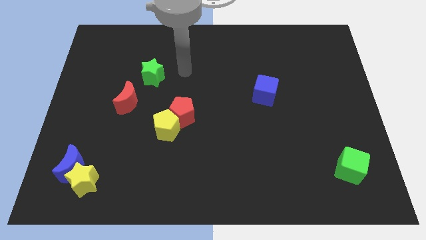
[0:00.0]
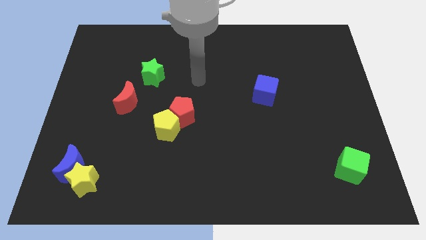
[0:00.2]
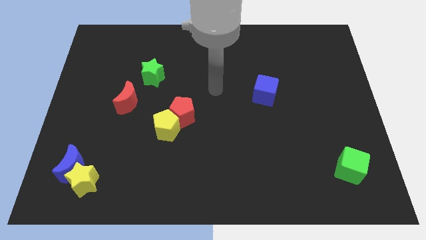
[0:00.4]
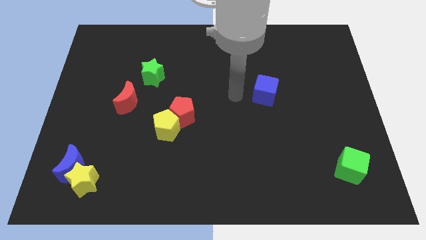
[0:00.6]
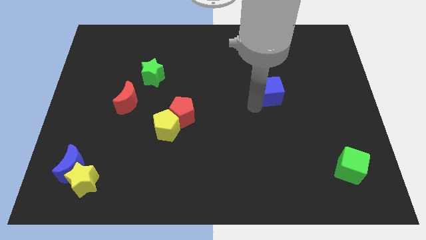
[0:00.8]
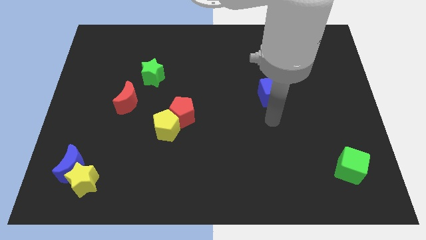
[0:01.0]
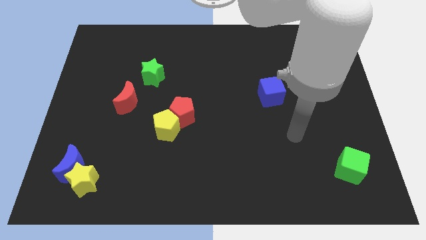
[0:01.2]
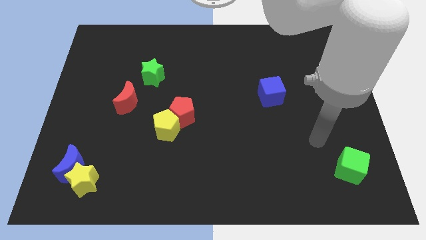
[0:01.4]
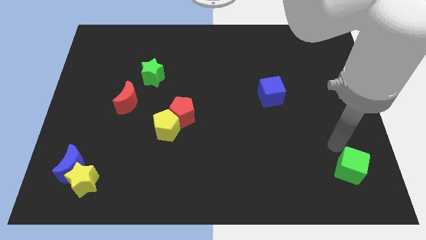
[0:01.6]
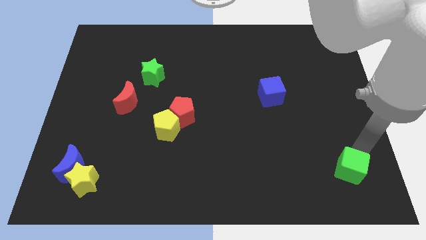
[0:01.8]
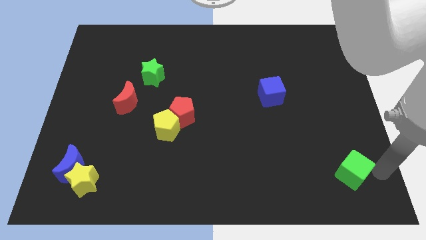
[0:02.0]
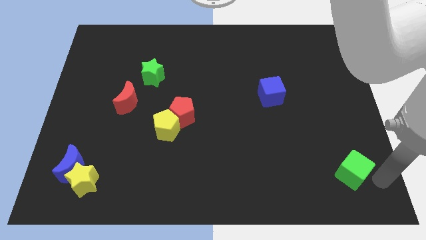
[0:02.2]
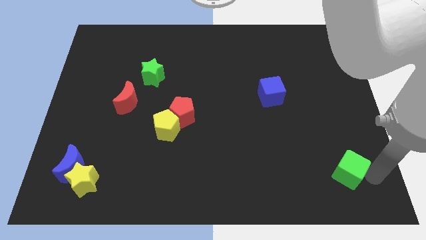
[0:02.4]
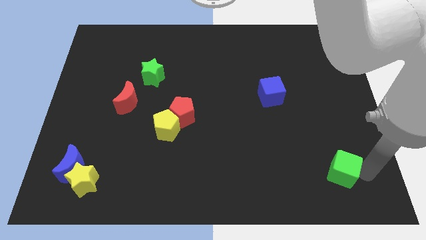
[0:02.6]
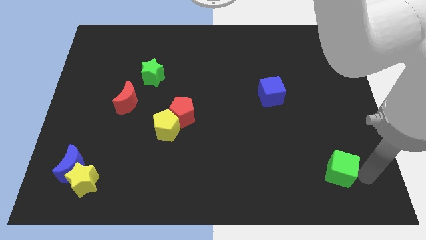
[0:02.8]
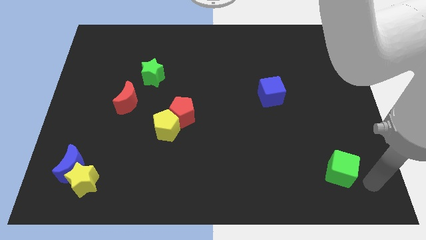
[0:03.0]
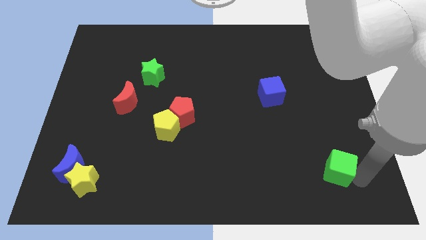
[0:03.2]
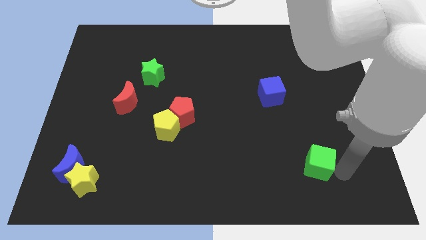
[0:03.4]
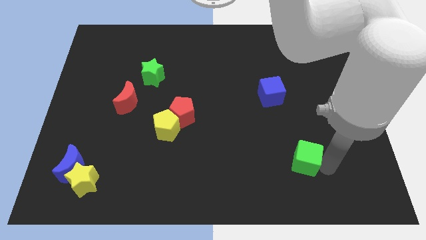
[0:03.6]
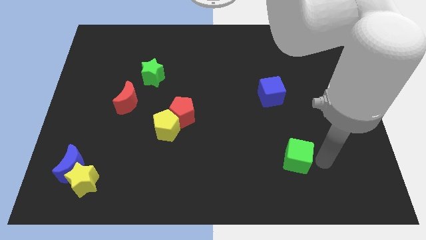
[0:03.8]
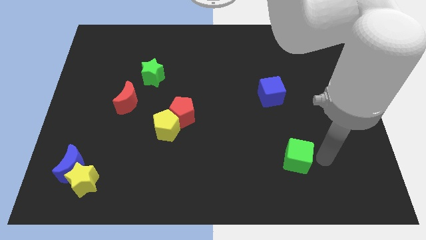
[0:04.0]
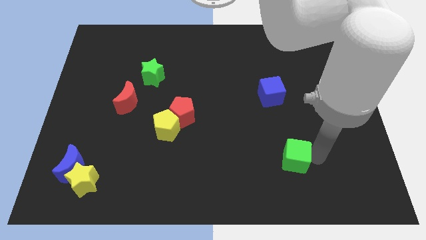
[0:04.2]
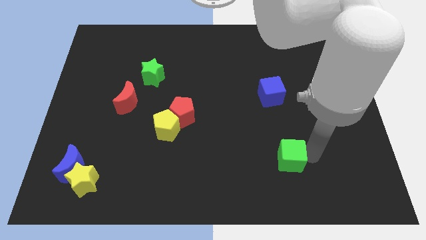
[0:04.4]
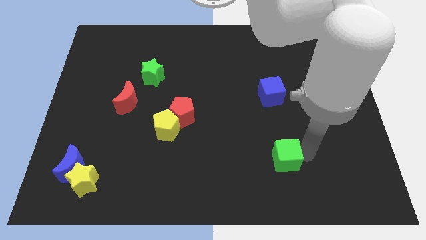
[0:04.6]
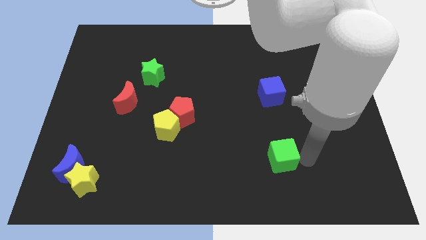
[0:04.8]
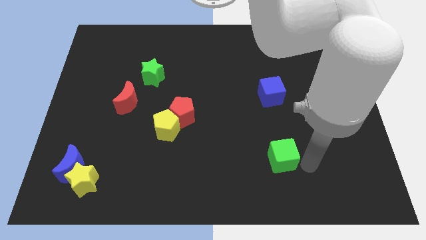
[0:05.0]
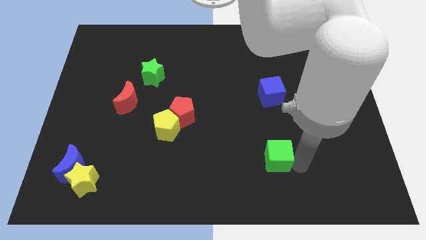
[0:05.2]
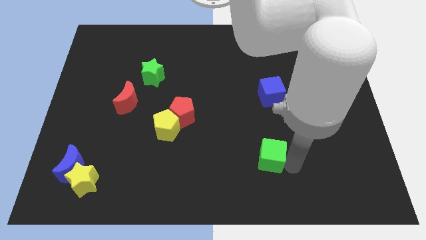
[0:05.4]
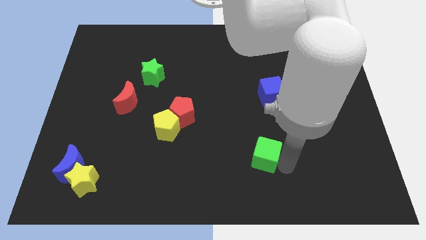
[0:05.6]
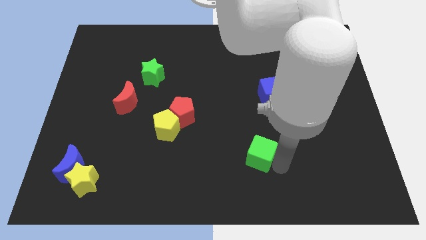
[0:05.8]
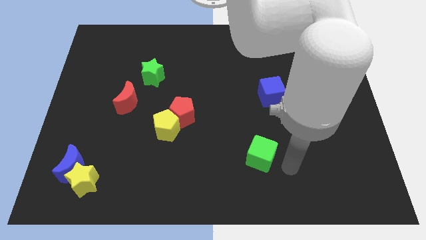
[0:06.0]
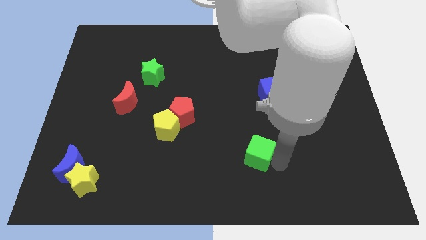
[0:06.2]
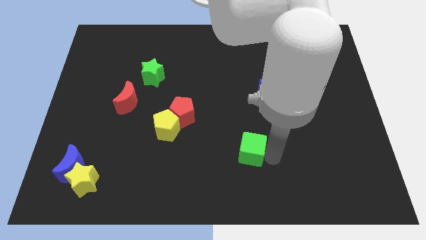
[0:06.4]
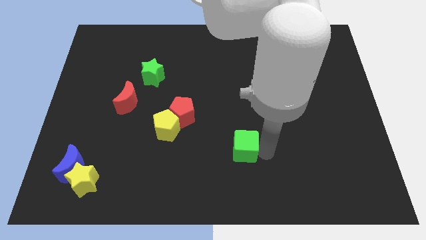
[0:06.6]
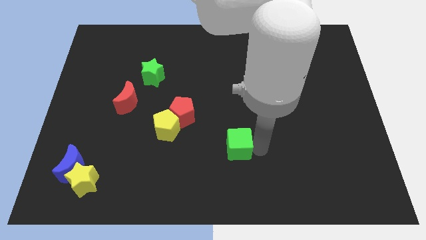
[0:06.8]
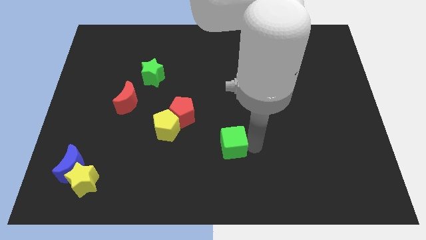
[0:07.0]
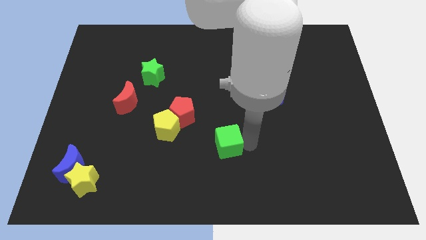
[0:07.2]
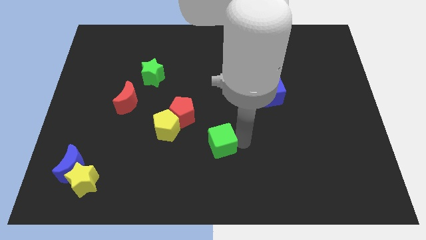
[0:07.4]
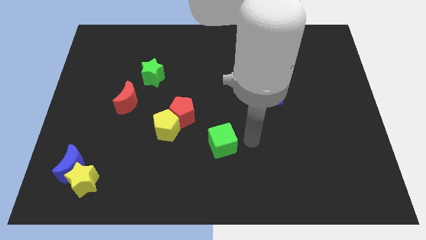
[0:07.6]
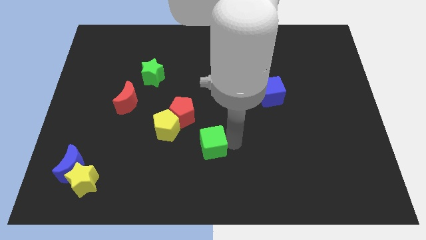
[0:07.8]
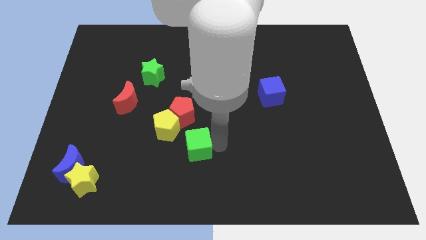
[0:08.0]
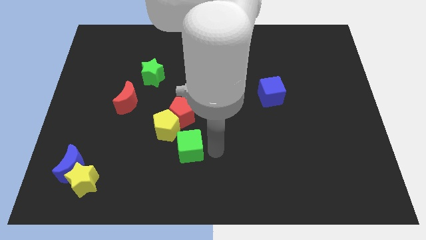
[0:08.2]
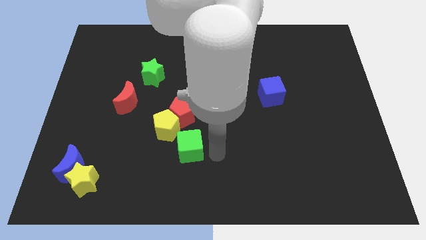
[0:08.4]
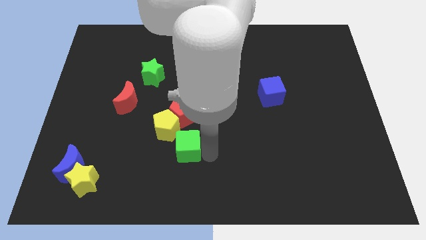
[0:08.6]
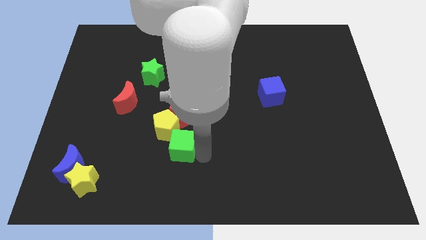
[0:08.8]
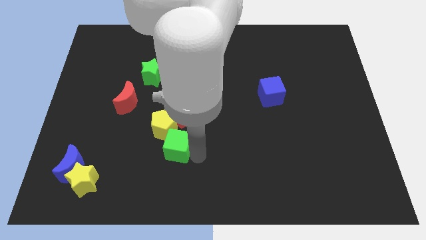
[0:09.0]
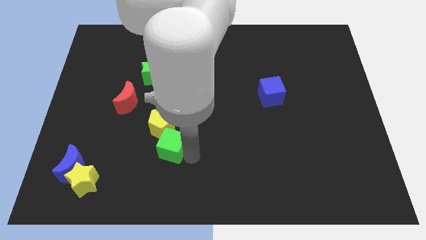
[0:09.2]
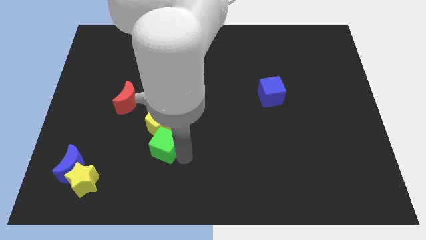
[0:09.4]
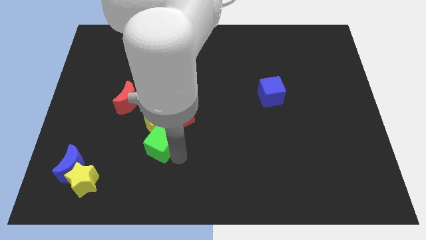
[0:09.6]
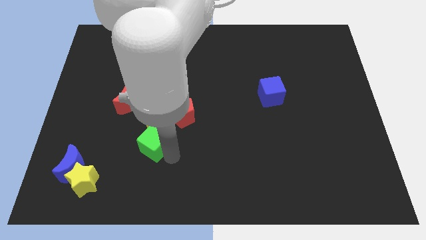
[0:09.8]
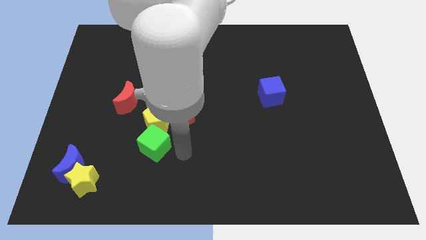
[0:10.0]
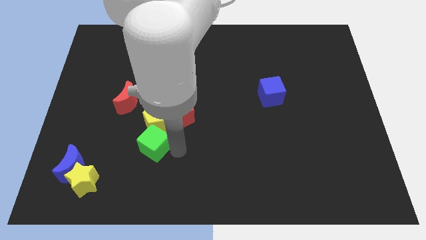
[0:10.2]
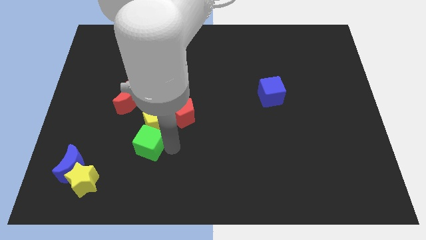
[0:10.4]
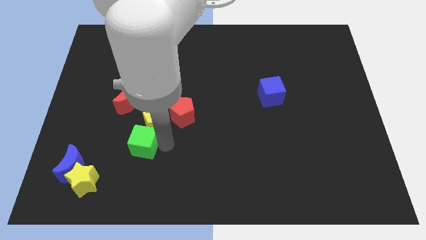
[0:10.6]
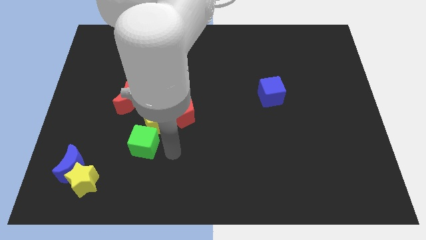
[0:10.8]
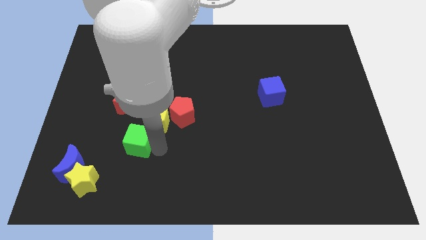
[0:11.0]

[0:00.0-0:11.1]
put the green cube below the red moon

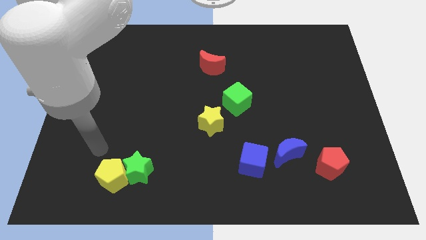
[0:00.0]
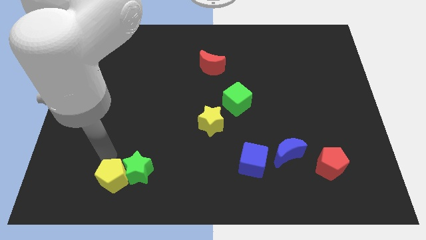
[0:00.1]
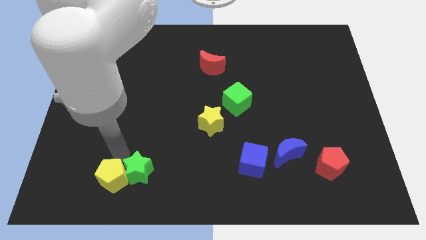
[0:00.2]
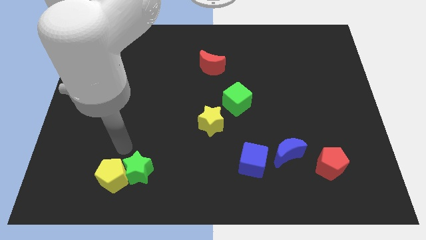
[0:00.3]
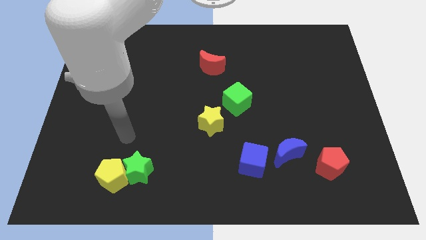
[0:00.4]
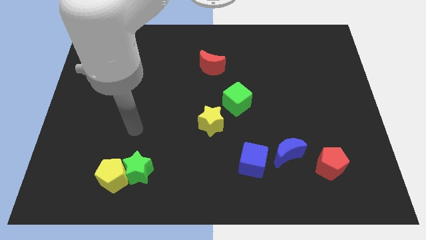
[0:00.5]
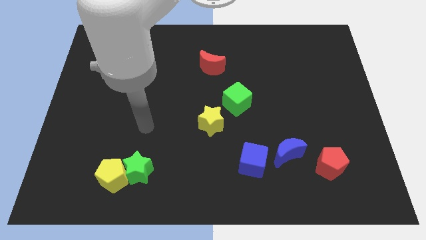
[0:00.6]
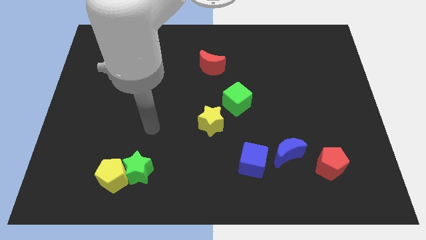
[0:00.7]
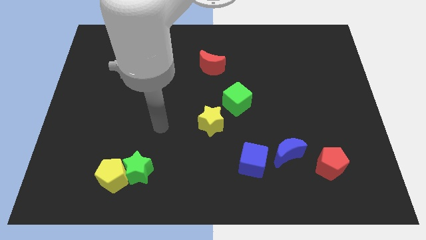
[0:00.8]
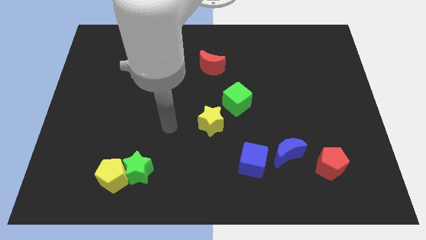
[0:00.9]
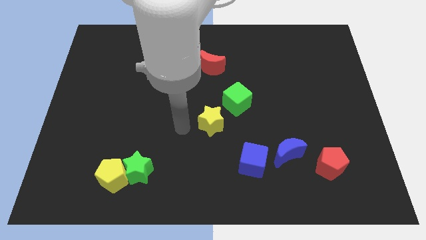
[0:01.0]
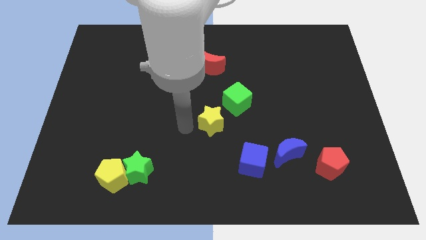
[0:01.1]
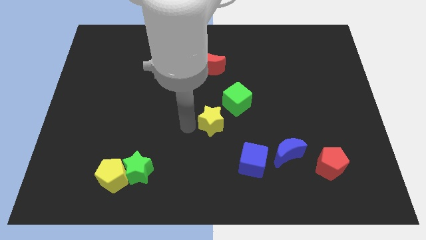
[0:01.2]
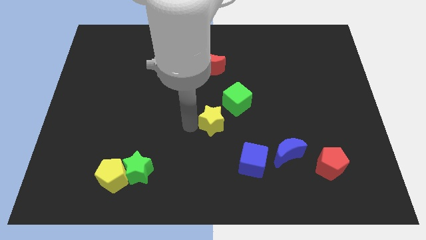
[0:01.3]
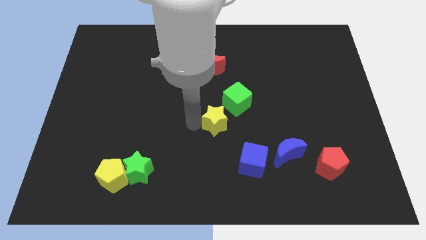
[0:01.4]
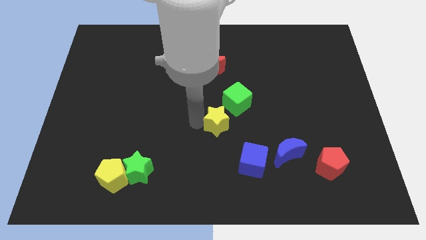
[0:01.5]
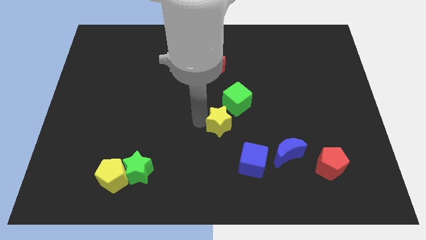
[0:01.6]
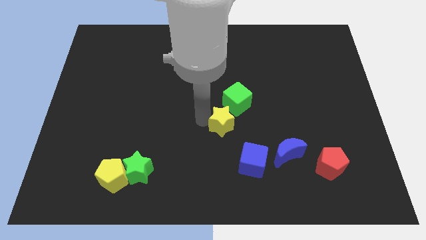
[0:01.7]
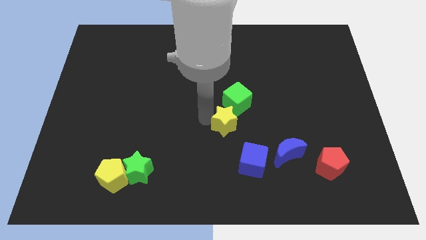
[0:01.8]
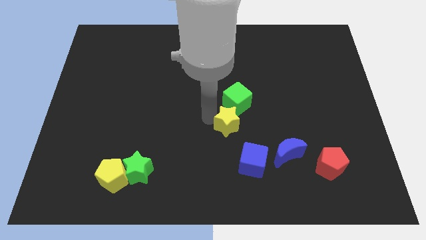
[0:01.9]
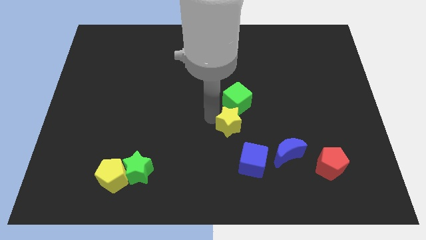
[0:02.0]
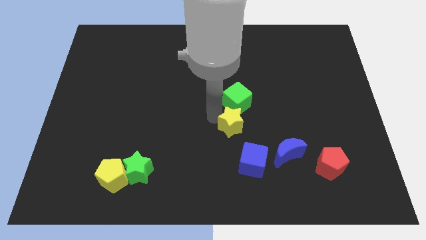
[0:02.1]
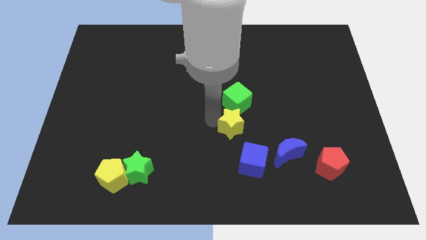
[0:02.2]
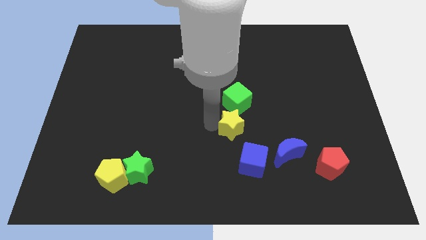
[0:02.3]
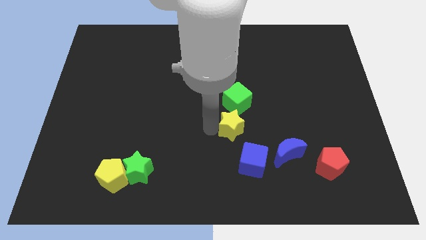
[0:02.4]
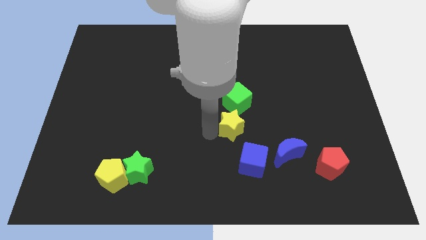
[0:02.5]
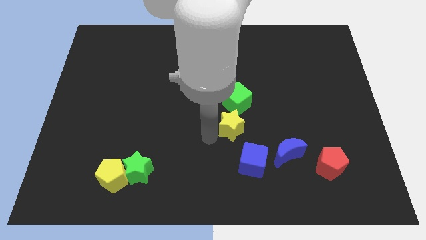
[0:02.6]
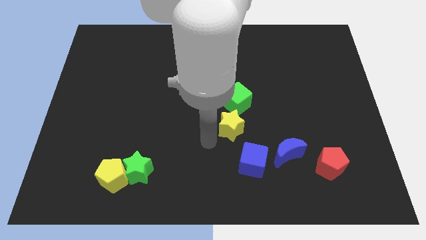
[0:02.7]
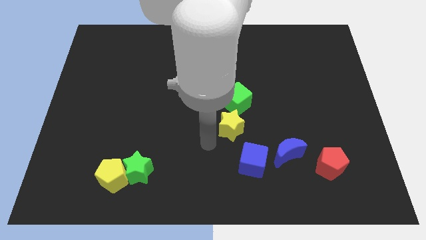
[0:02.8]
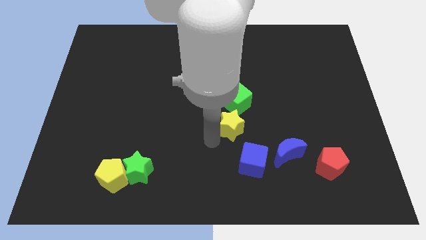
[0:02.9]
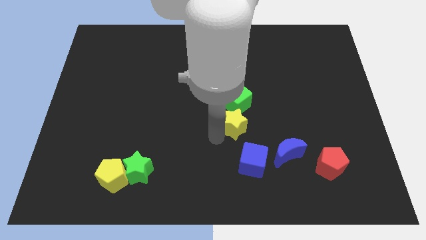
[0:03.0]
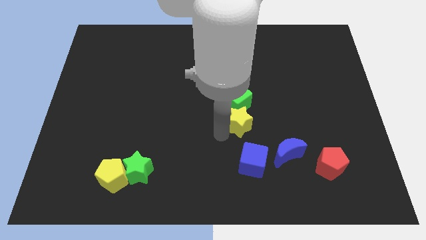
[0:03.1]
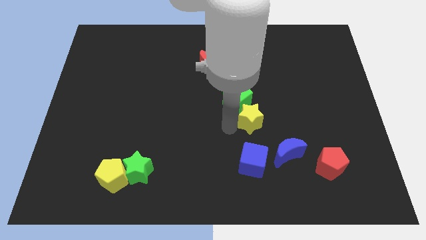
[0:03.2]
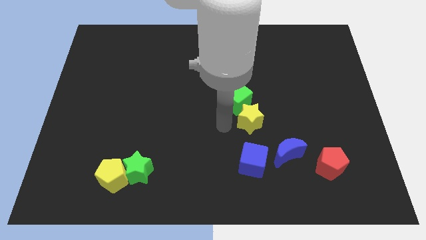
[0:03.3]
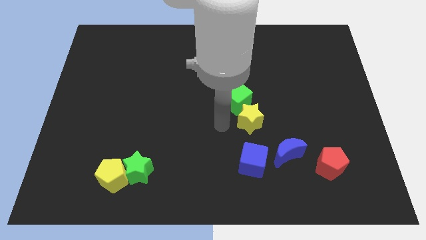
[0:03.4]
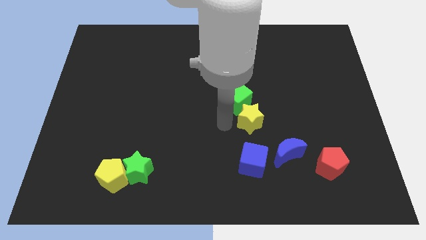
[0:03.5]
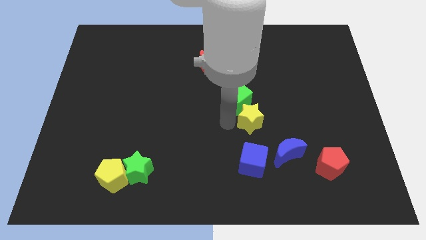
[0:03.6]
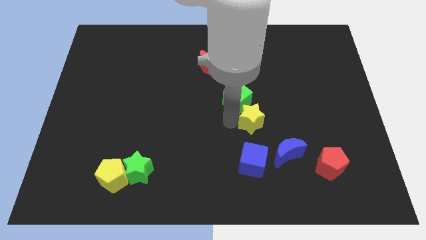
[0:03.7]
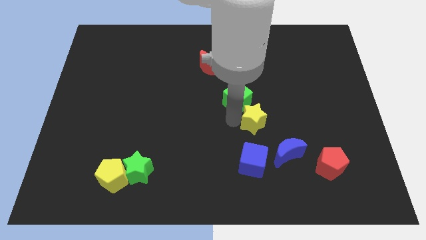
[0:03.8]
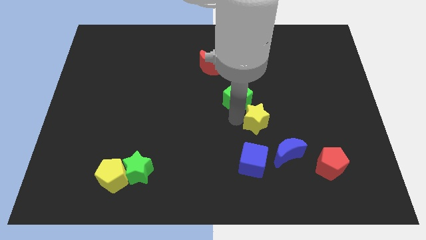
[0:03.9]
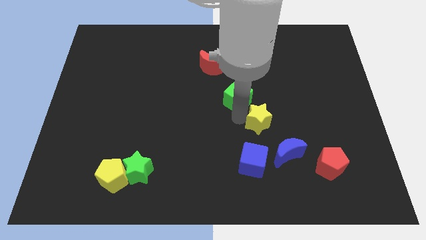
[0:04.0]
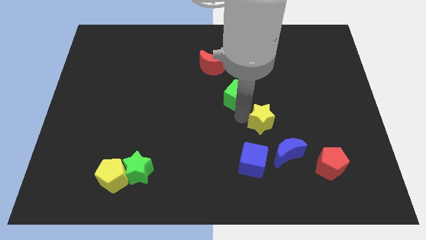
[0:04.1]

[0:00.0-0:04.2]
slide the yellow star to the top side of the blue moon
